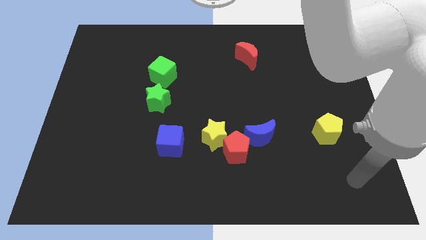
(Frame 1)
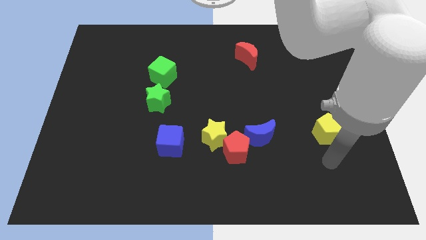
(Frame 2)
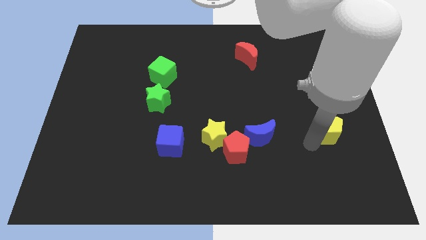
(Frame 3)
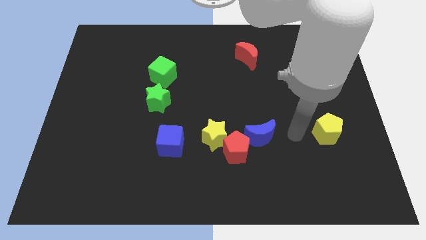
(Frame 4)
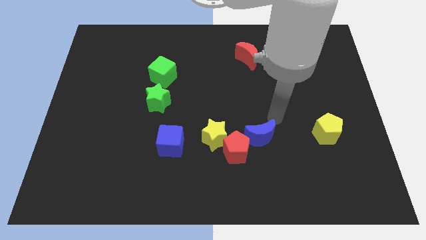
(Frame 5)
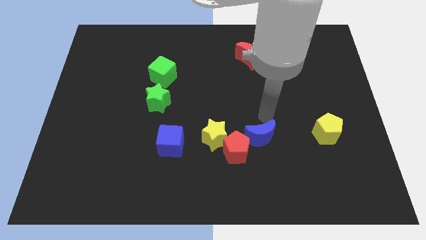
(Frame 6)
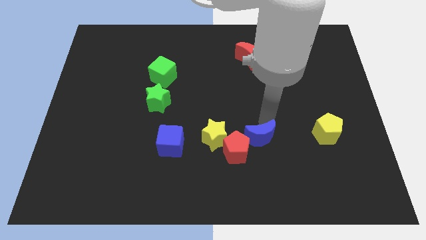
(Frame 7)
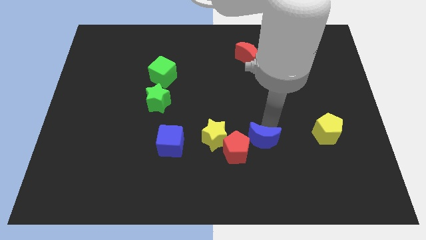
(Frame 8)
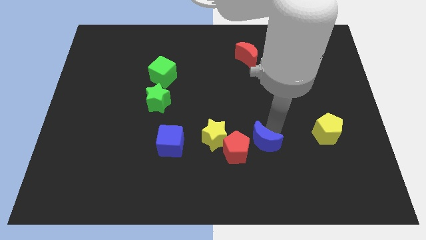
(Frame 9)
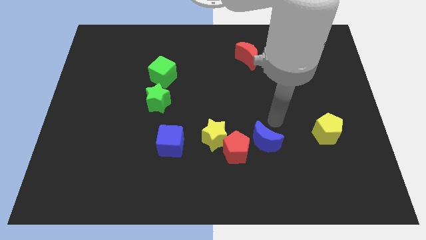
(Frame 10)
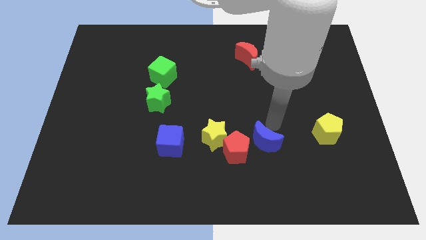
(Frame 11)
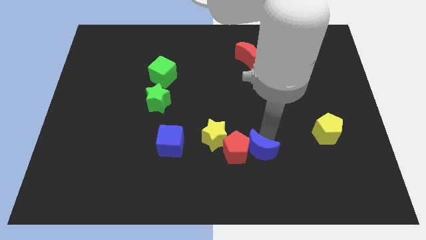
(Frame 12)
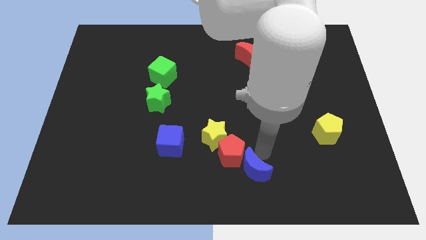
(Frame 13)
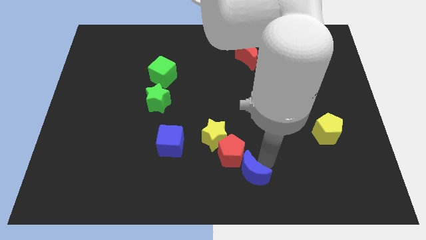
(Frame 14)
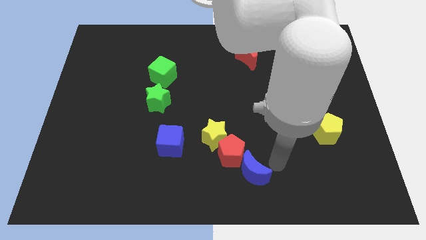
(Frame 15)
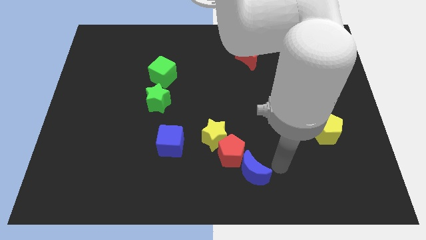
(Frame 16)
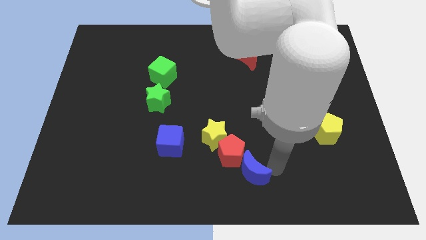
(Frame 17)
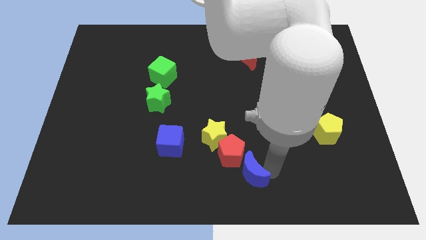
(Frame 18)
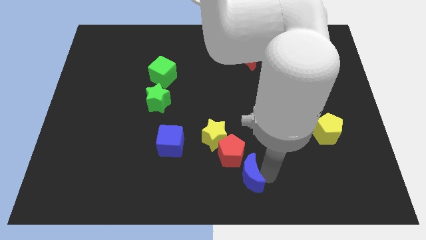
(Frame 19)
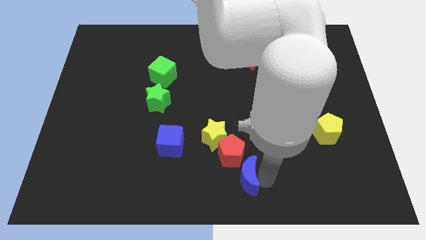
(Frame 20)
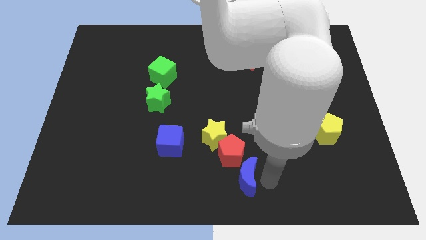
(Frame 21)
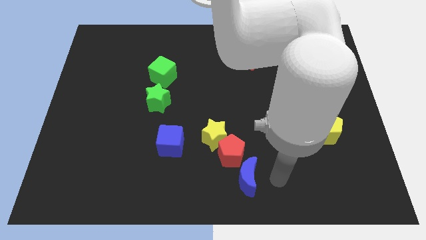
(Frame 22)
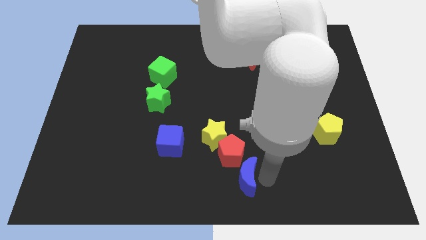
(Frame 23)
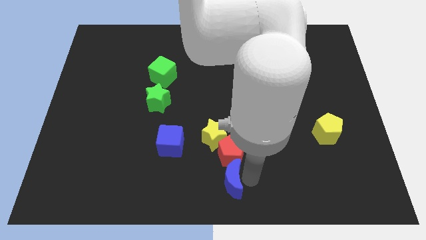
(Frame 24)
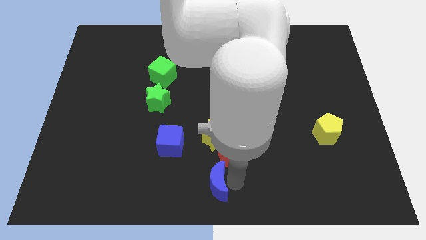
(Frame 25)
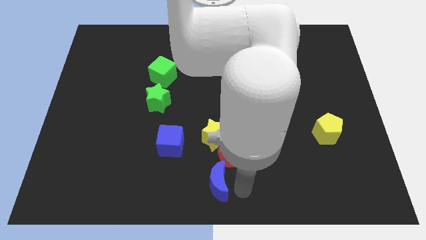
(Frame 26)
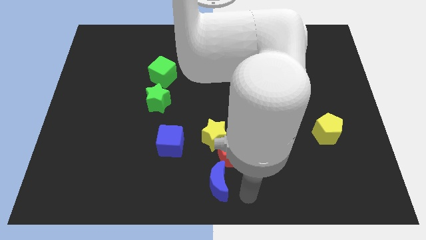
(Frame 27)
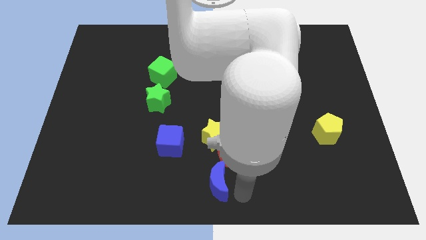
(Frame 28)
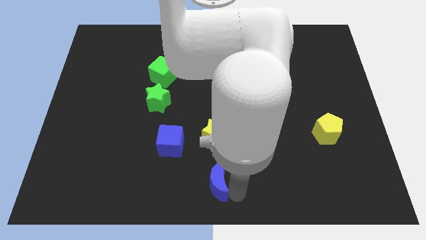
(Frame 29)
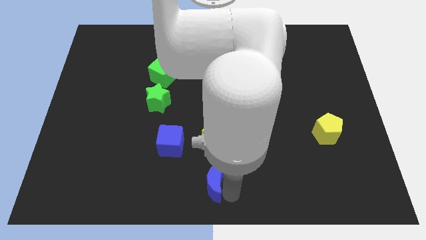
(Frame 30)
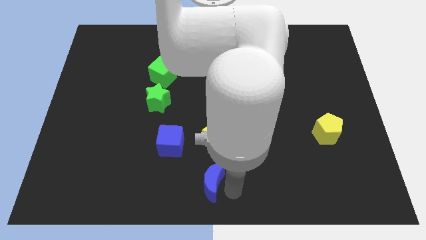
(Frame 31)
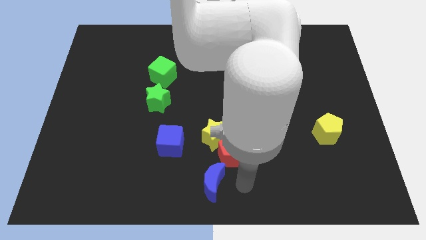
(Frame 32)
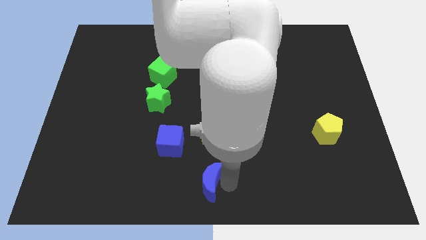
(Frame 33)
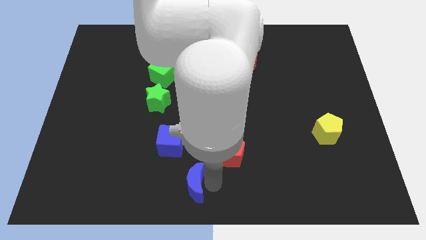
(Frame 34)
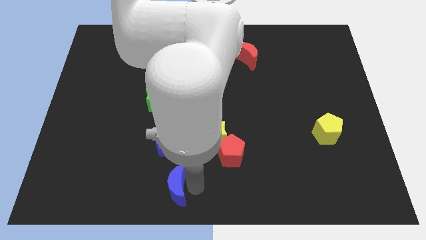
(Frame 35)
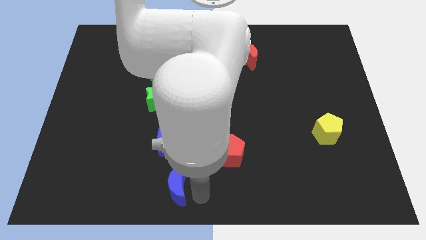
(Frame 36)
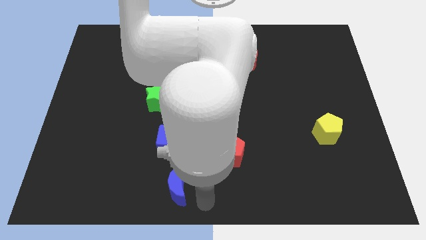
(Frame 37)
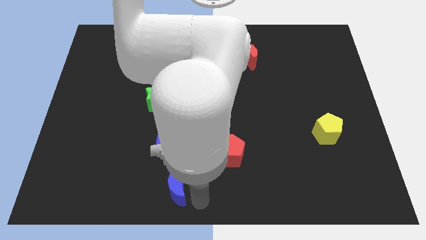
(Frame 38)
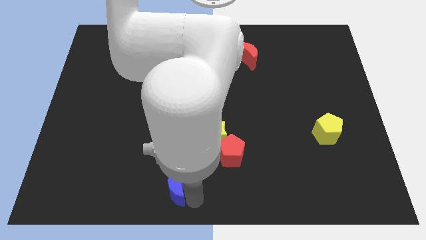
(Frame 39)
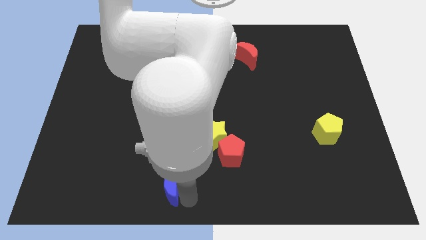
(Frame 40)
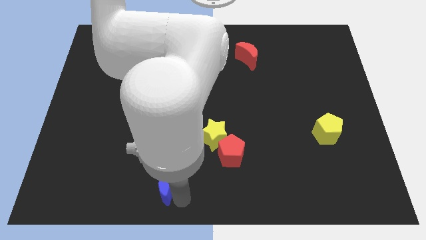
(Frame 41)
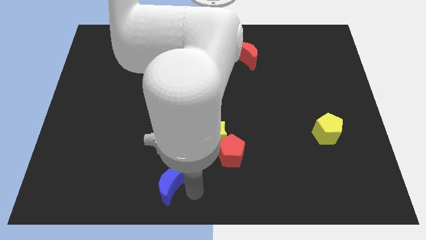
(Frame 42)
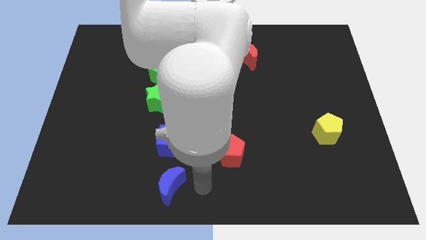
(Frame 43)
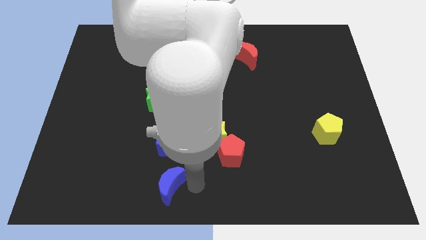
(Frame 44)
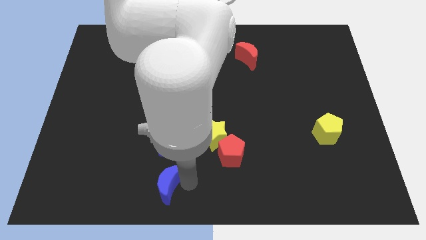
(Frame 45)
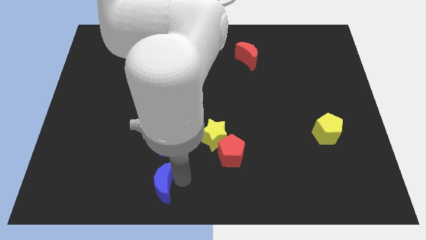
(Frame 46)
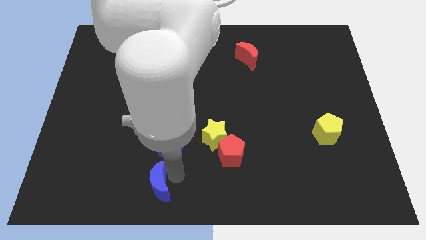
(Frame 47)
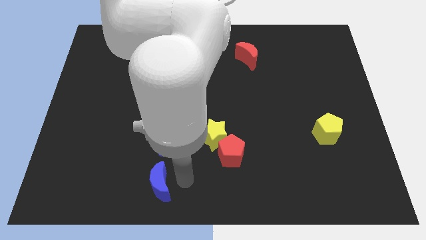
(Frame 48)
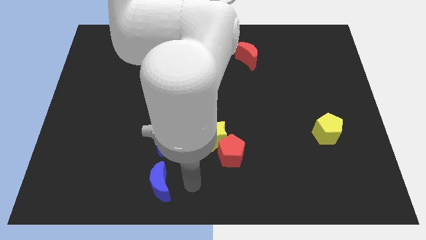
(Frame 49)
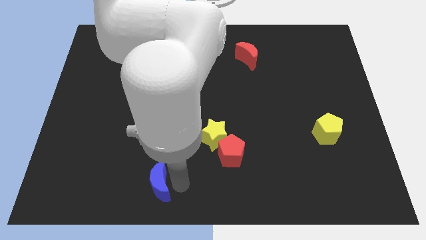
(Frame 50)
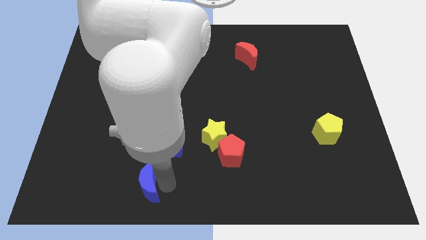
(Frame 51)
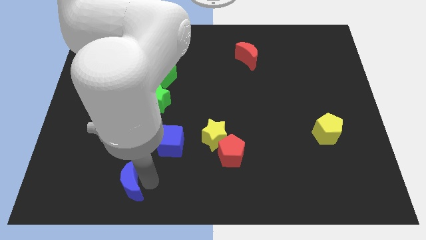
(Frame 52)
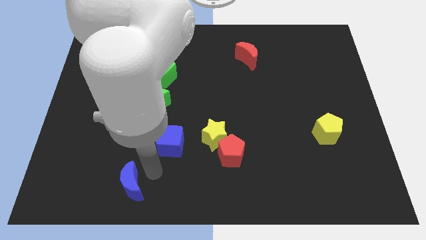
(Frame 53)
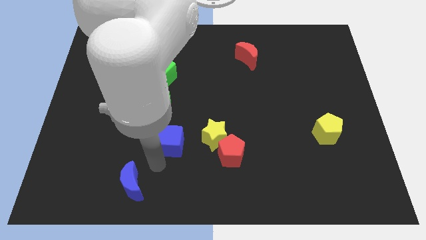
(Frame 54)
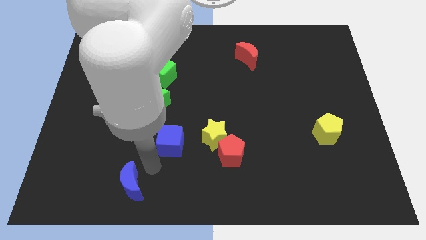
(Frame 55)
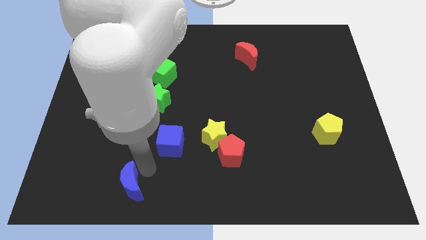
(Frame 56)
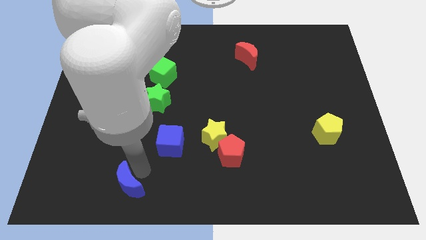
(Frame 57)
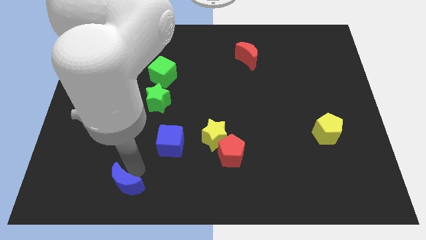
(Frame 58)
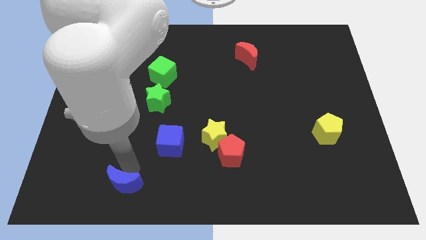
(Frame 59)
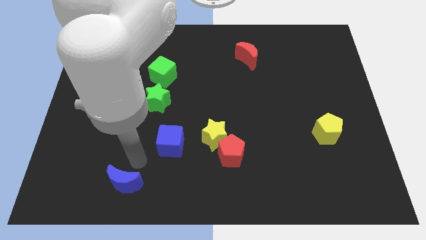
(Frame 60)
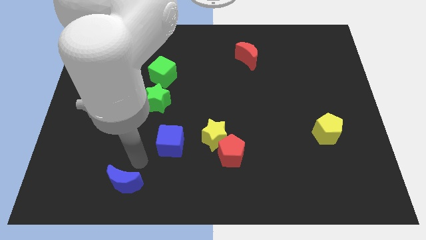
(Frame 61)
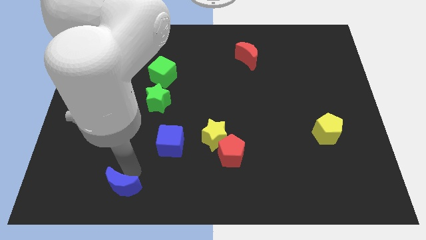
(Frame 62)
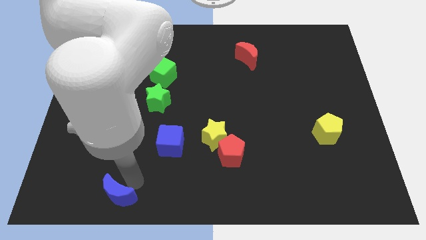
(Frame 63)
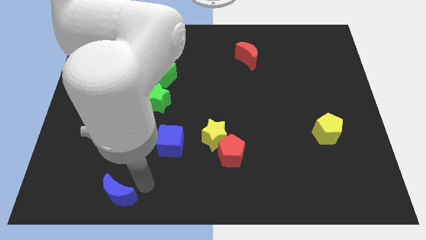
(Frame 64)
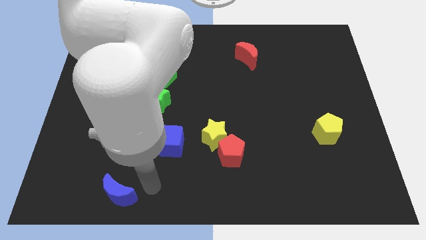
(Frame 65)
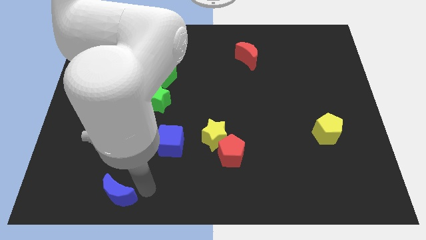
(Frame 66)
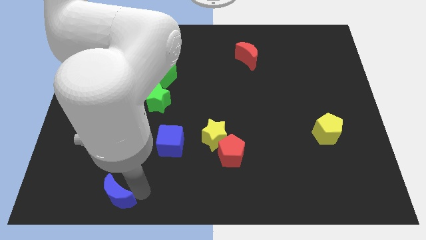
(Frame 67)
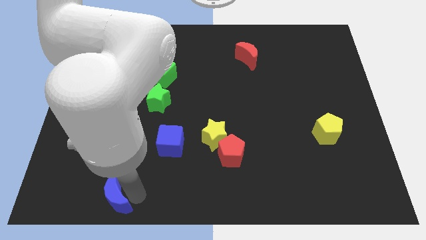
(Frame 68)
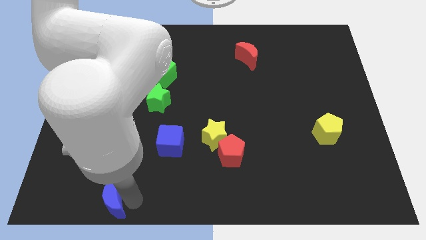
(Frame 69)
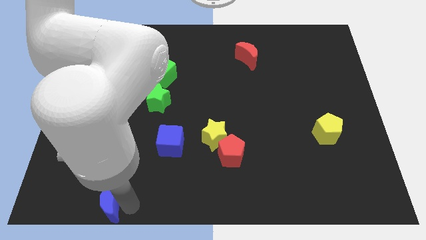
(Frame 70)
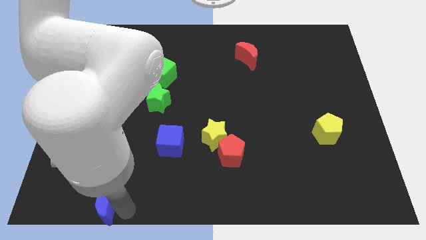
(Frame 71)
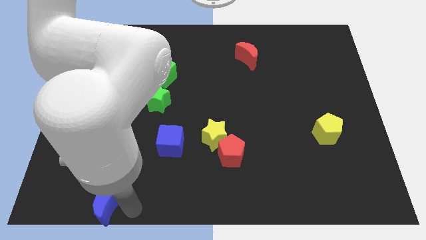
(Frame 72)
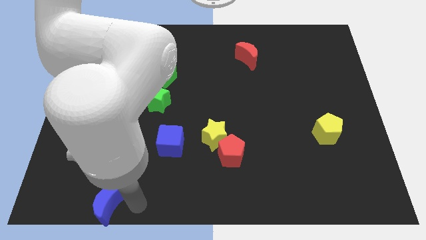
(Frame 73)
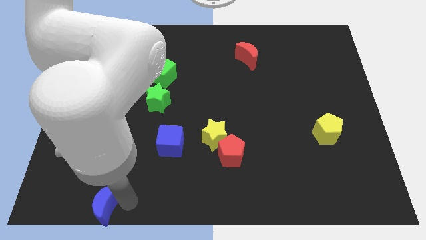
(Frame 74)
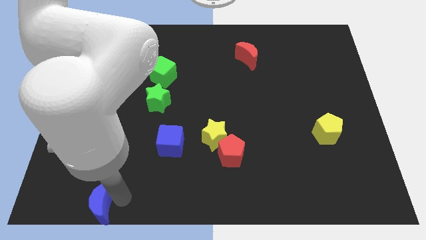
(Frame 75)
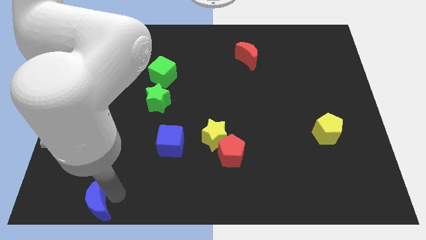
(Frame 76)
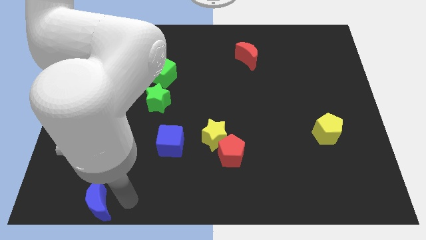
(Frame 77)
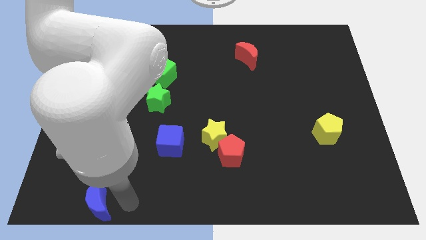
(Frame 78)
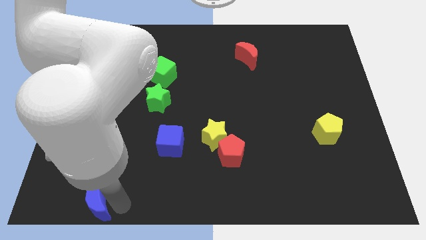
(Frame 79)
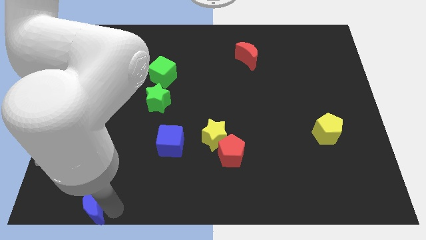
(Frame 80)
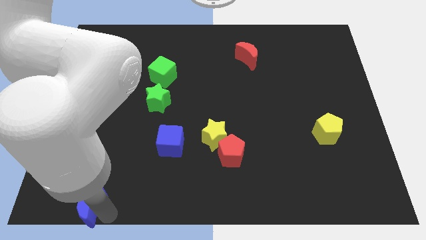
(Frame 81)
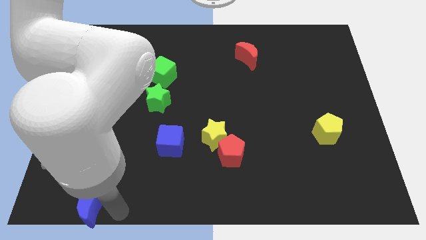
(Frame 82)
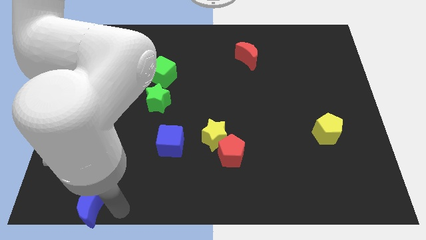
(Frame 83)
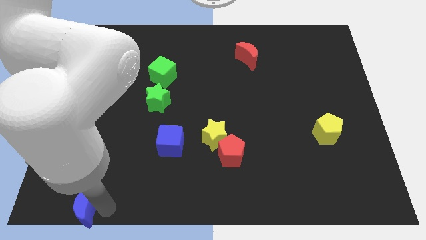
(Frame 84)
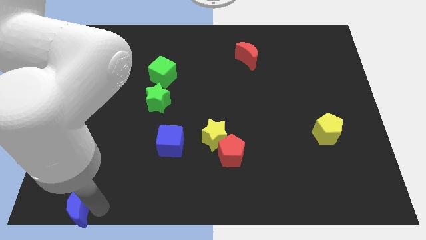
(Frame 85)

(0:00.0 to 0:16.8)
move the blue moon to the bottom left of the board
